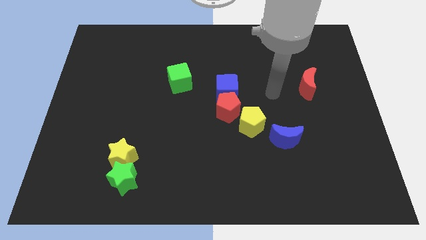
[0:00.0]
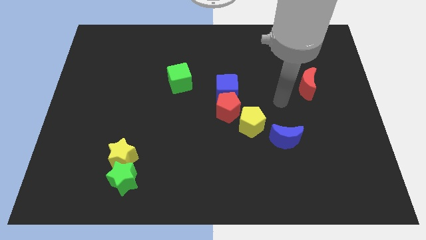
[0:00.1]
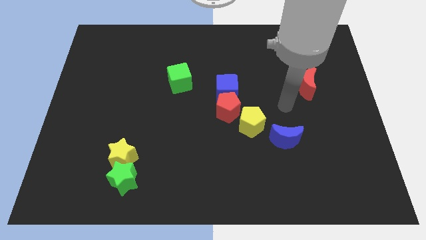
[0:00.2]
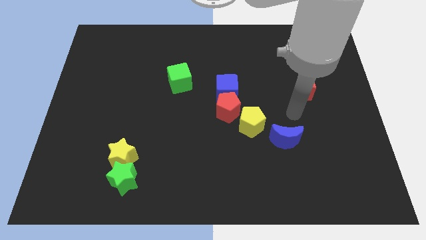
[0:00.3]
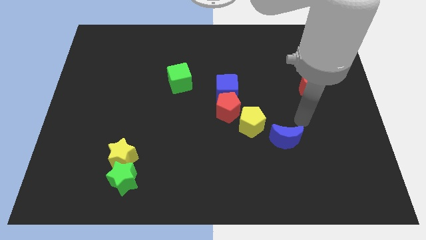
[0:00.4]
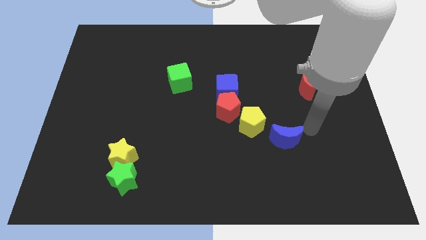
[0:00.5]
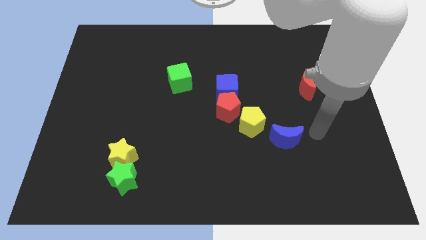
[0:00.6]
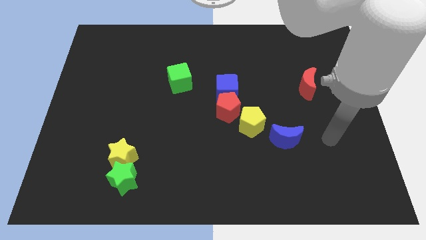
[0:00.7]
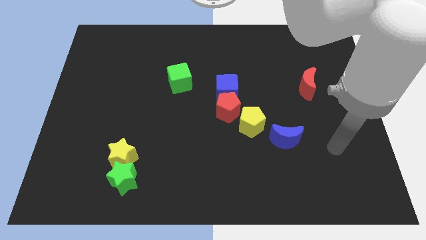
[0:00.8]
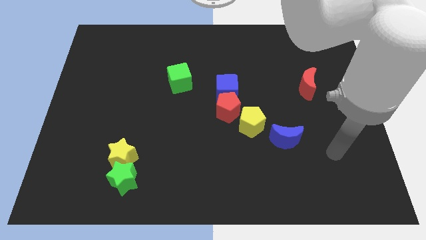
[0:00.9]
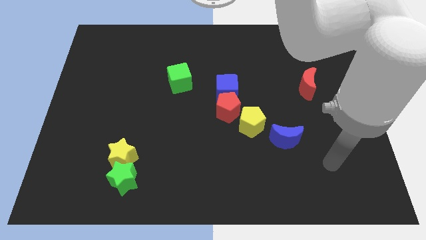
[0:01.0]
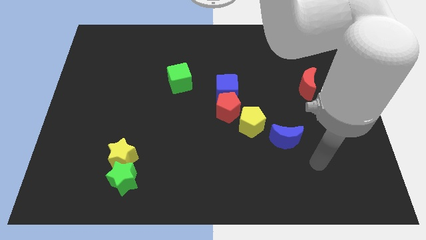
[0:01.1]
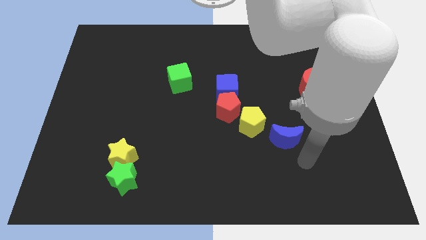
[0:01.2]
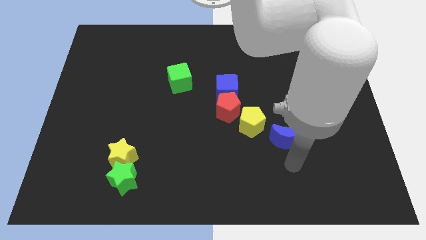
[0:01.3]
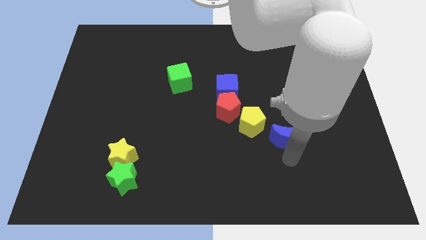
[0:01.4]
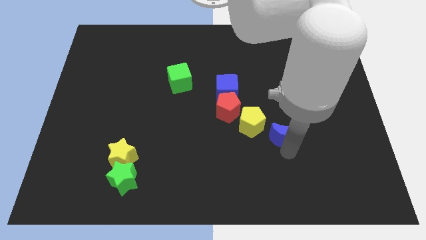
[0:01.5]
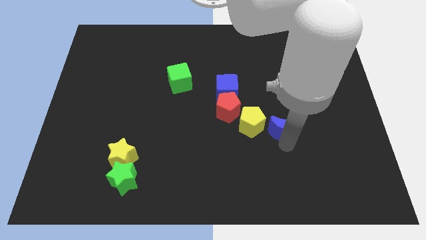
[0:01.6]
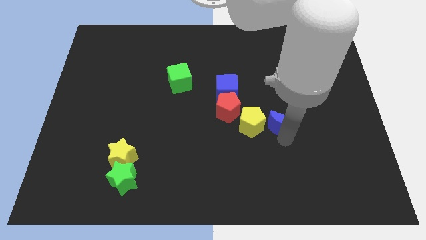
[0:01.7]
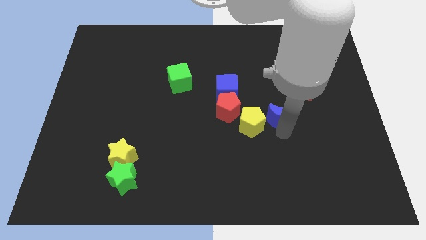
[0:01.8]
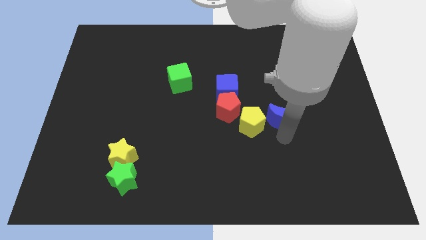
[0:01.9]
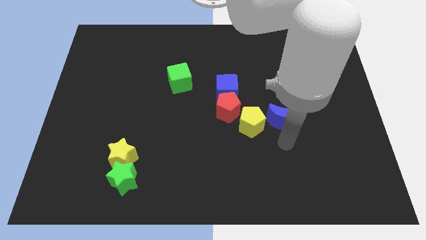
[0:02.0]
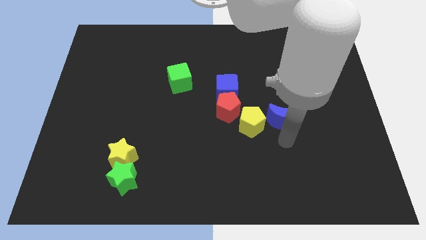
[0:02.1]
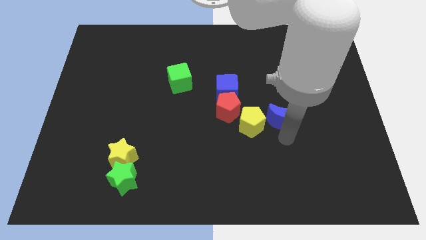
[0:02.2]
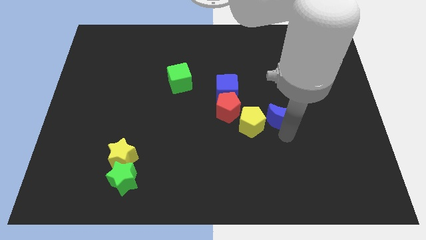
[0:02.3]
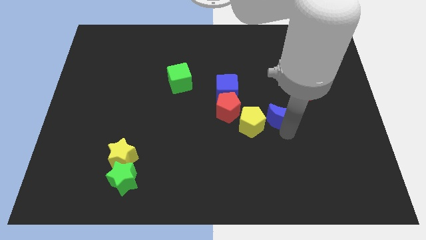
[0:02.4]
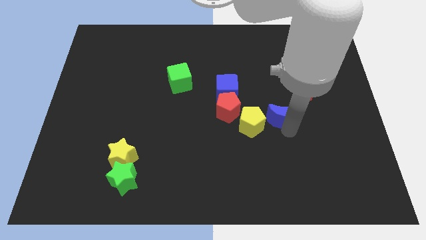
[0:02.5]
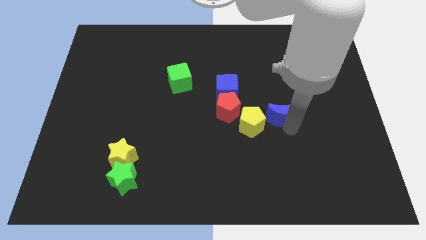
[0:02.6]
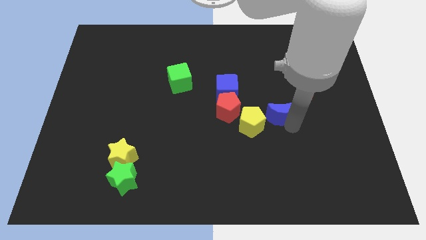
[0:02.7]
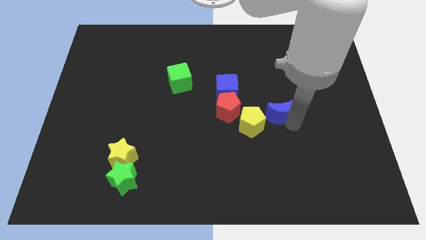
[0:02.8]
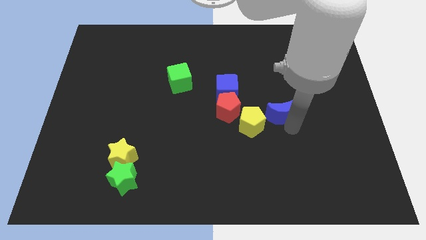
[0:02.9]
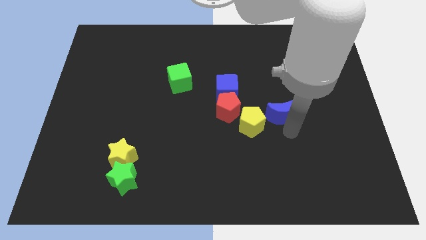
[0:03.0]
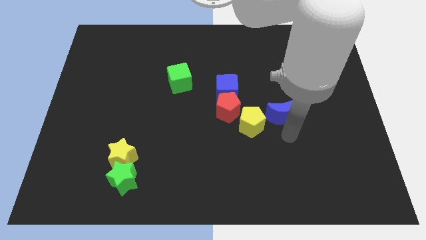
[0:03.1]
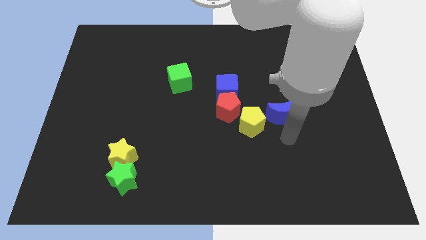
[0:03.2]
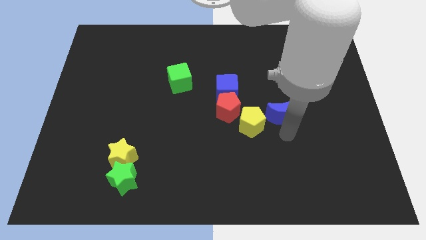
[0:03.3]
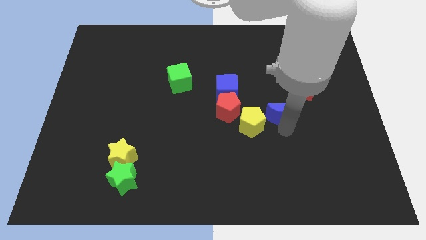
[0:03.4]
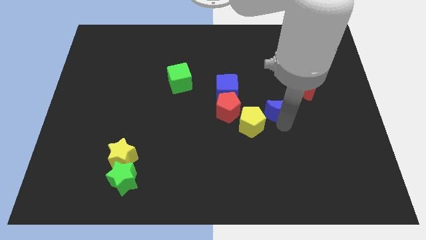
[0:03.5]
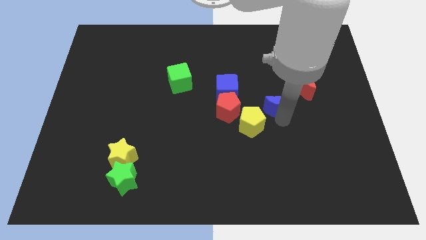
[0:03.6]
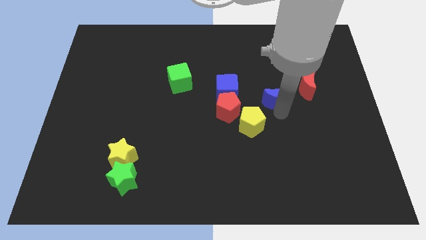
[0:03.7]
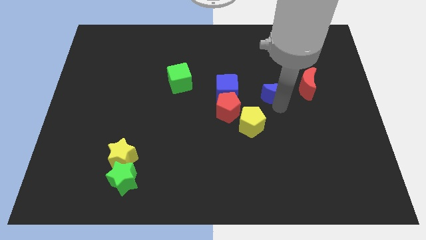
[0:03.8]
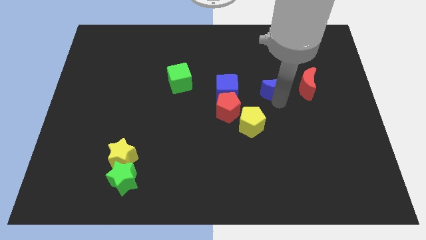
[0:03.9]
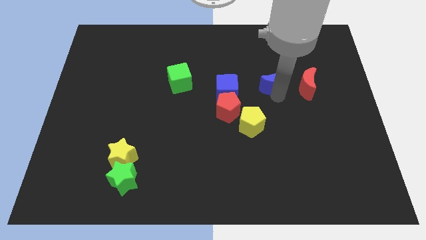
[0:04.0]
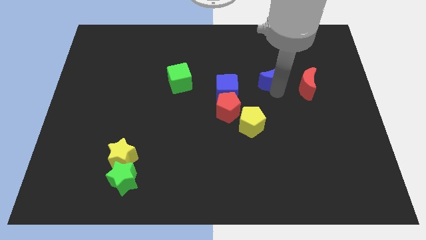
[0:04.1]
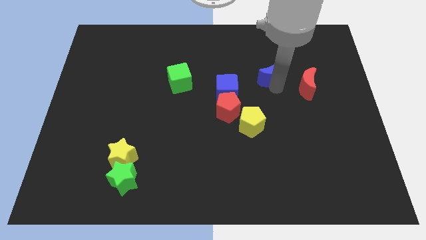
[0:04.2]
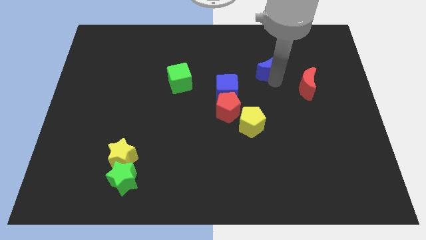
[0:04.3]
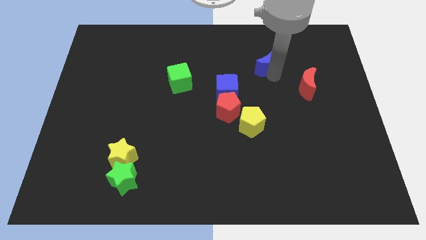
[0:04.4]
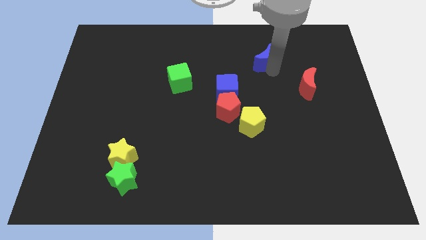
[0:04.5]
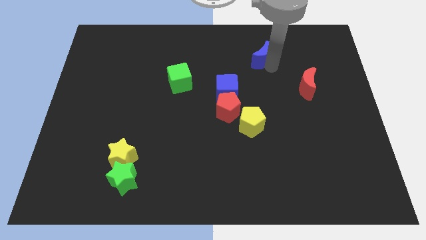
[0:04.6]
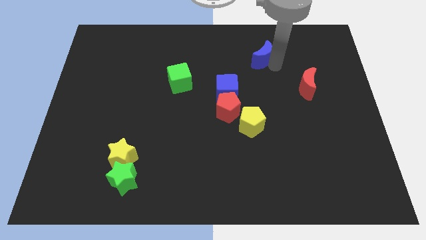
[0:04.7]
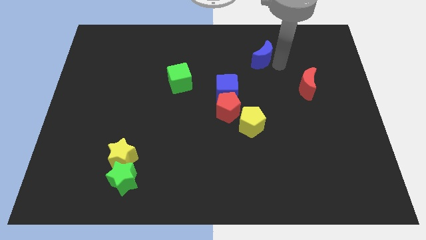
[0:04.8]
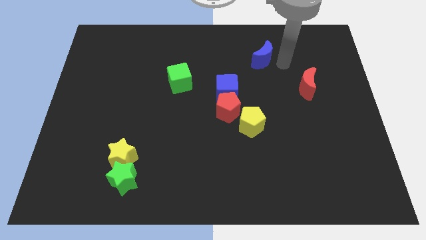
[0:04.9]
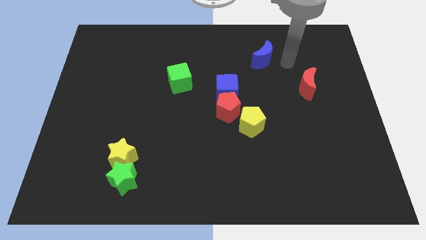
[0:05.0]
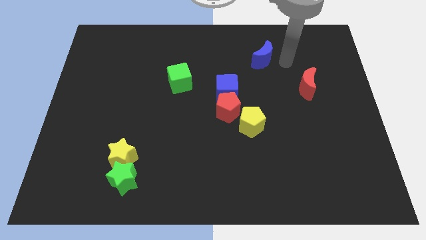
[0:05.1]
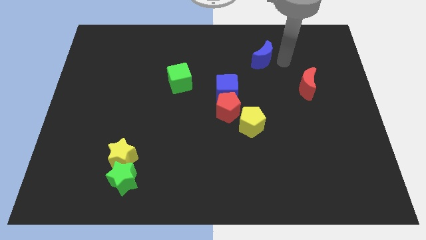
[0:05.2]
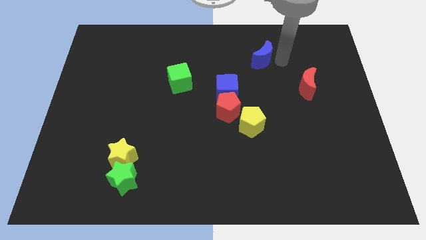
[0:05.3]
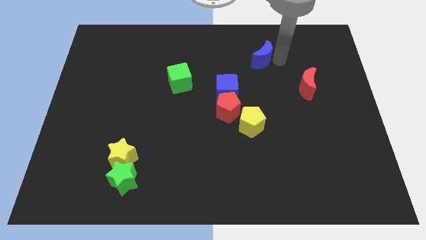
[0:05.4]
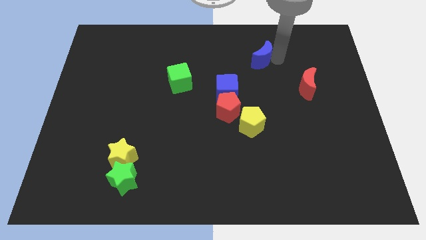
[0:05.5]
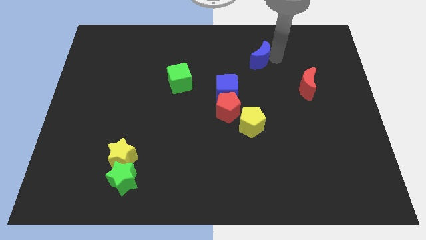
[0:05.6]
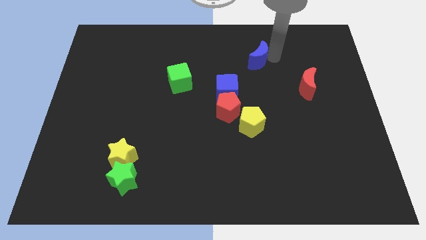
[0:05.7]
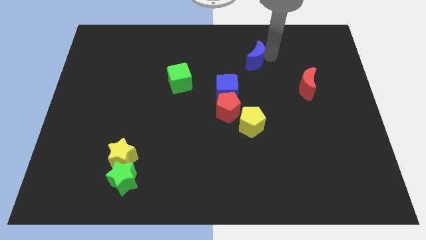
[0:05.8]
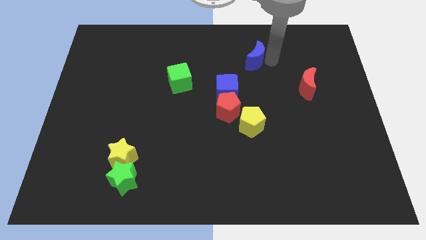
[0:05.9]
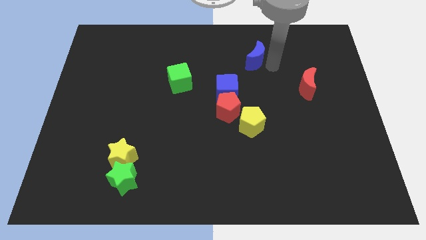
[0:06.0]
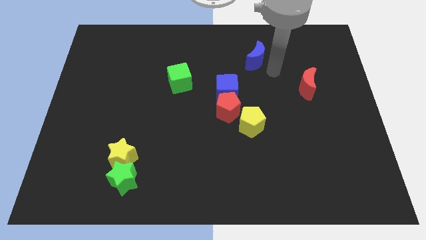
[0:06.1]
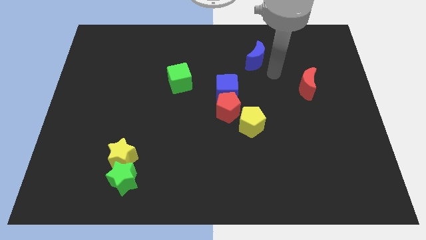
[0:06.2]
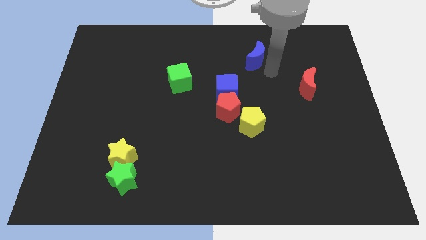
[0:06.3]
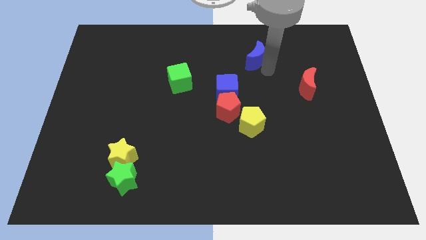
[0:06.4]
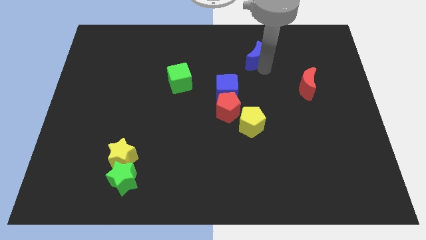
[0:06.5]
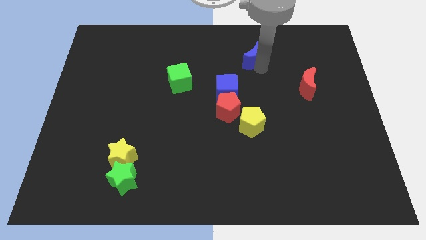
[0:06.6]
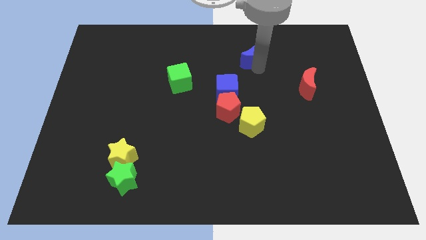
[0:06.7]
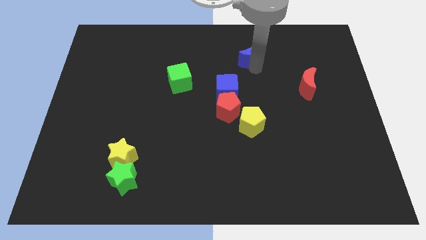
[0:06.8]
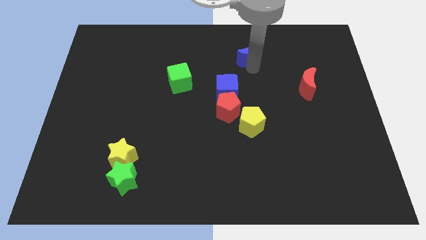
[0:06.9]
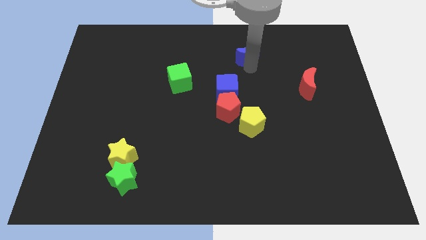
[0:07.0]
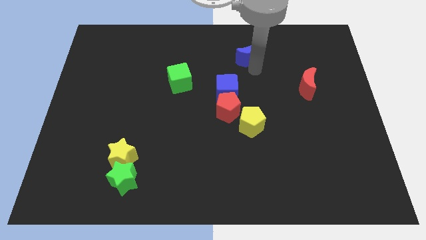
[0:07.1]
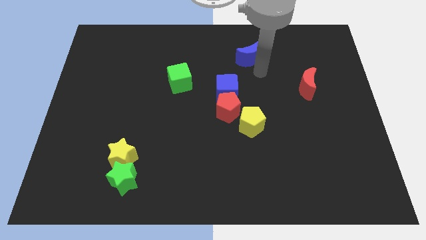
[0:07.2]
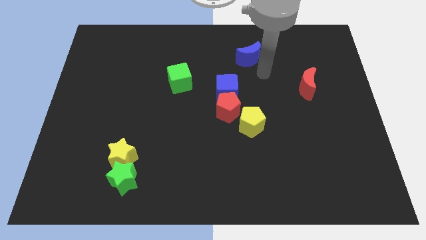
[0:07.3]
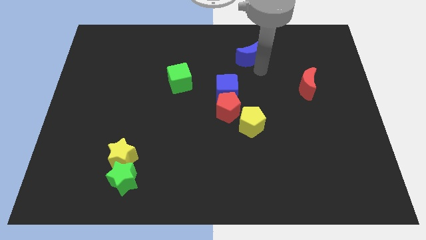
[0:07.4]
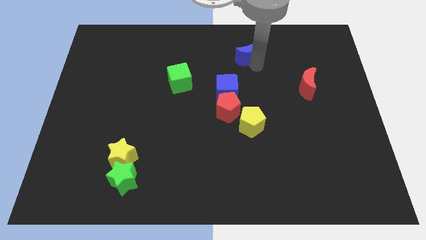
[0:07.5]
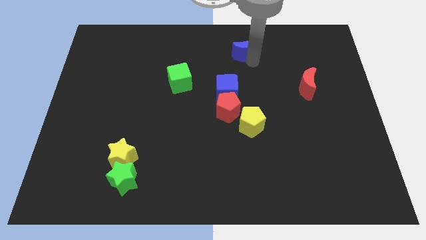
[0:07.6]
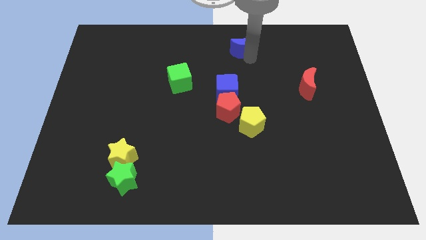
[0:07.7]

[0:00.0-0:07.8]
move the blue moon to the top side
